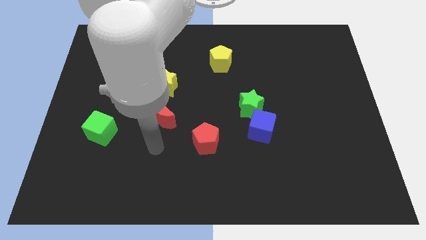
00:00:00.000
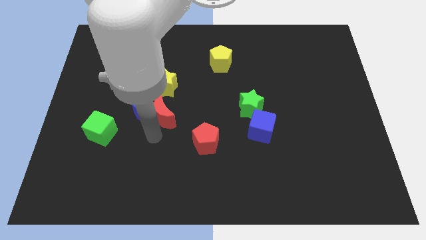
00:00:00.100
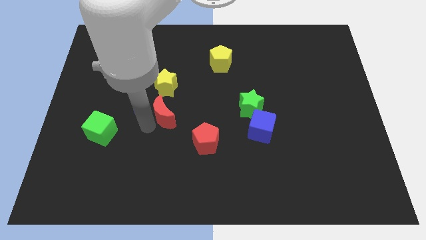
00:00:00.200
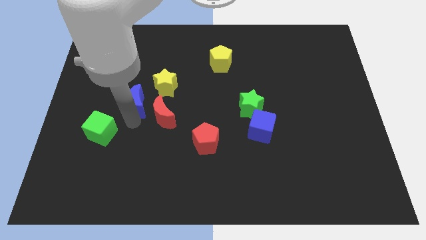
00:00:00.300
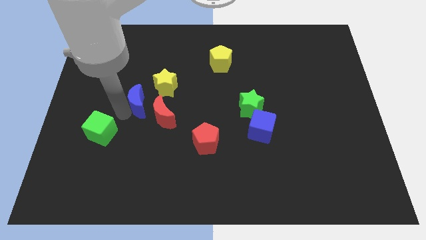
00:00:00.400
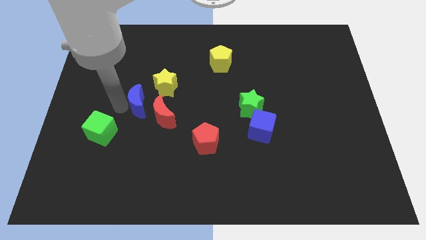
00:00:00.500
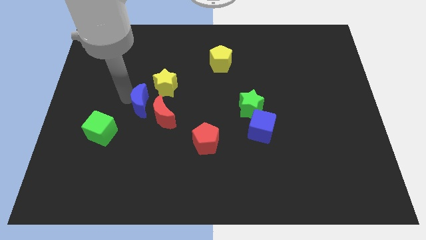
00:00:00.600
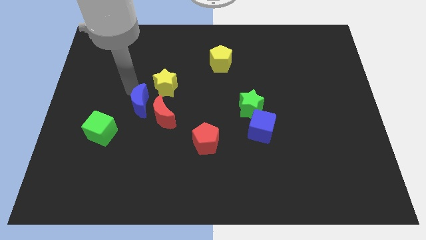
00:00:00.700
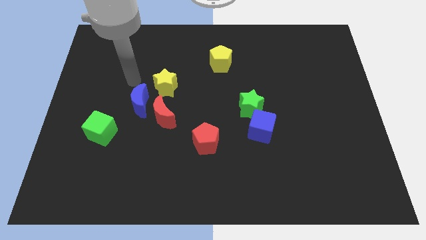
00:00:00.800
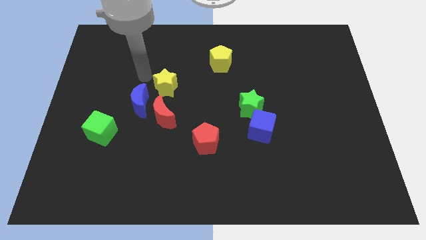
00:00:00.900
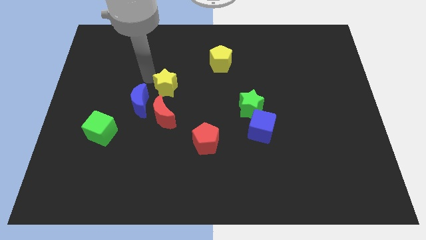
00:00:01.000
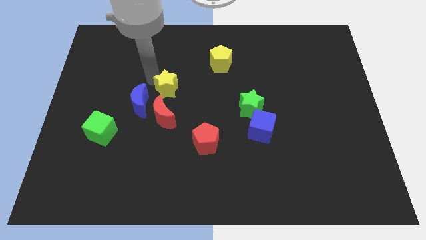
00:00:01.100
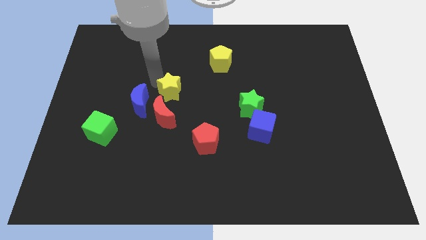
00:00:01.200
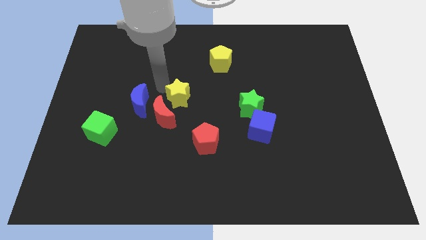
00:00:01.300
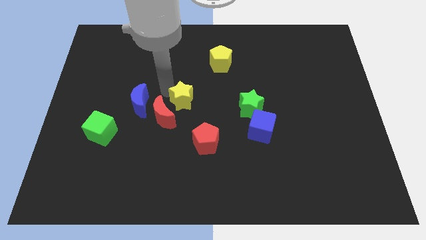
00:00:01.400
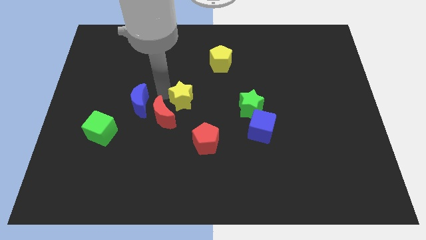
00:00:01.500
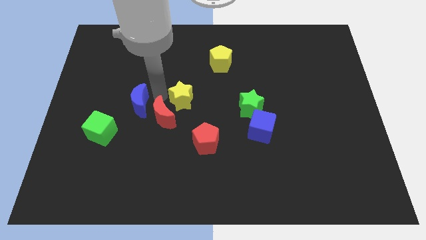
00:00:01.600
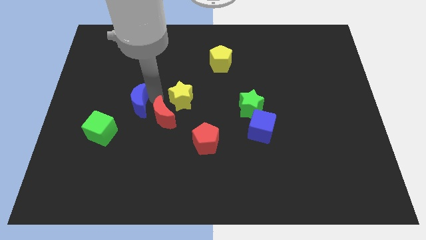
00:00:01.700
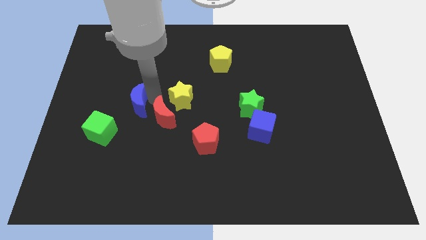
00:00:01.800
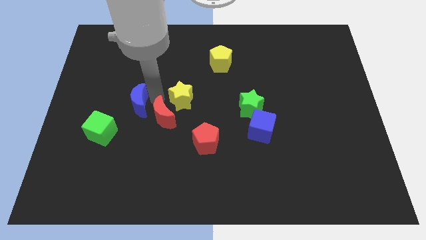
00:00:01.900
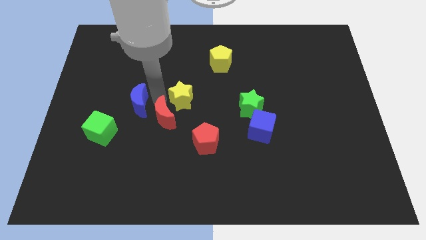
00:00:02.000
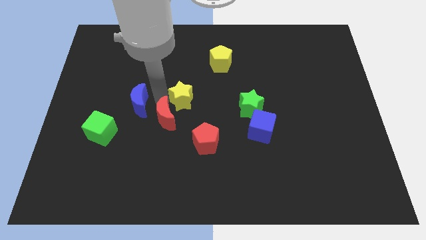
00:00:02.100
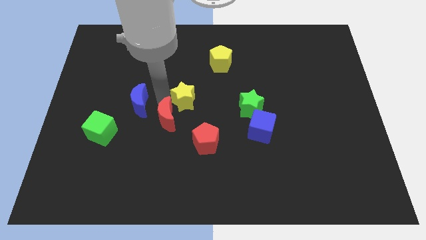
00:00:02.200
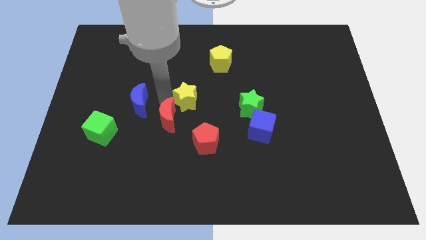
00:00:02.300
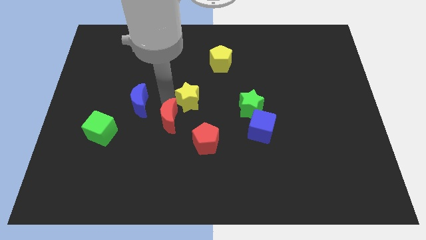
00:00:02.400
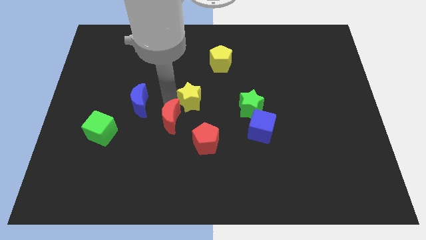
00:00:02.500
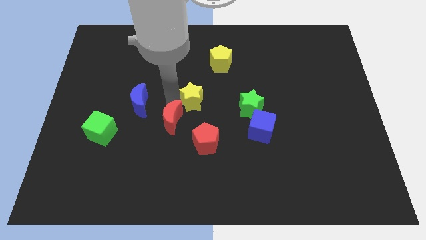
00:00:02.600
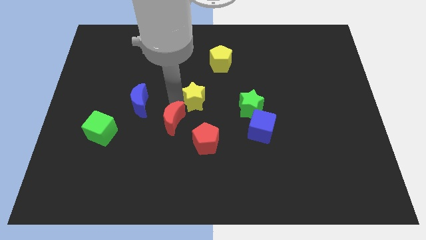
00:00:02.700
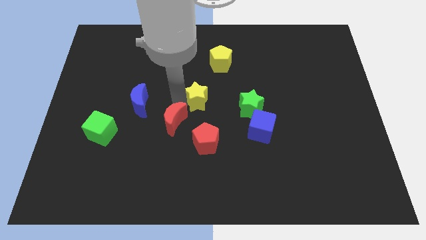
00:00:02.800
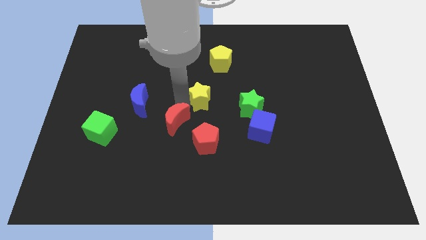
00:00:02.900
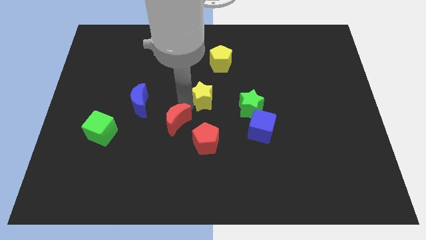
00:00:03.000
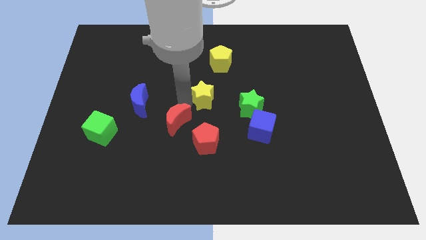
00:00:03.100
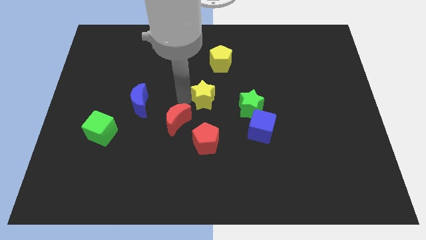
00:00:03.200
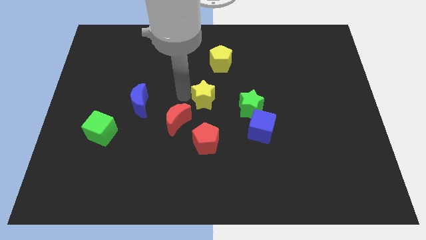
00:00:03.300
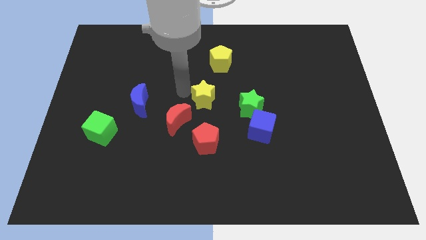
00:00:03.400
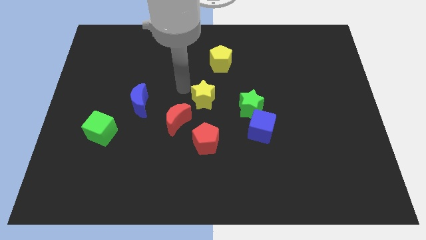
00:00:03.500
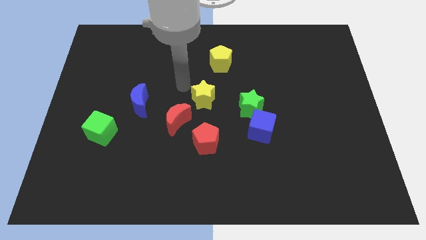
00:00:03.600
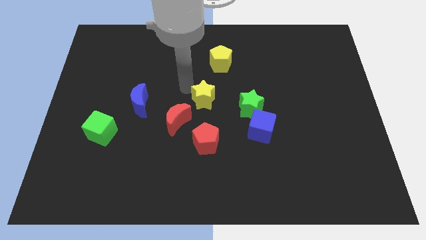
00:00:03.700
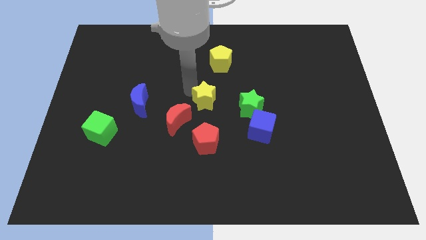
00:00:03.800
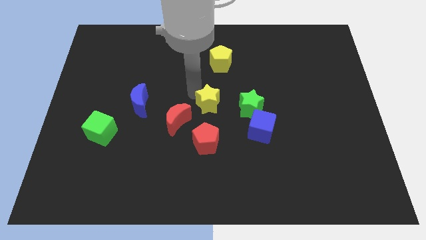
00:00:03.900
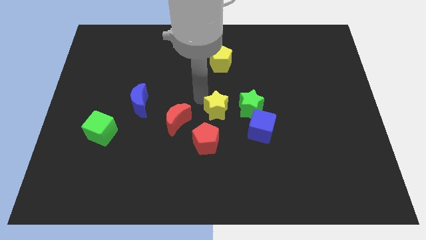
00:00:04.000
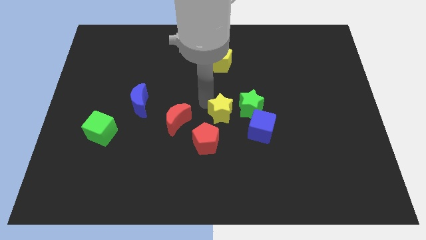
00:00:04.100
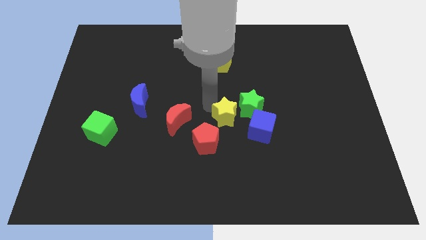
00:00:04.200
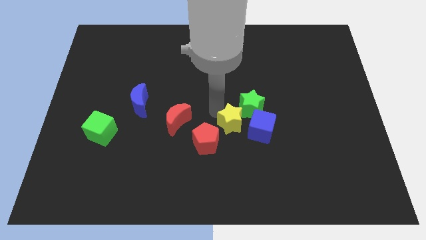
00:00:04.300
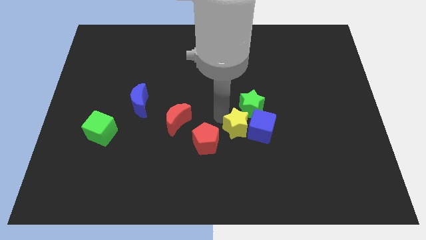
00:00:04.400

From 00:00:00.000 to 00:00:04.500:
slide the yellow star close to the blue cube

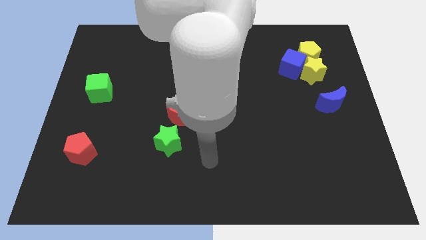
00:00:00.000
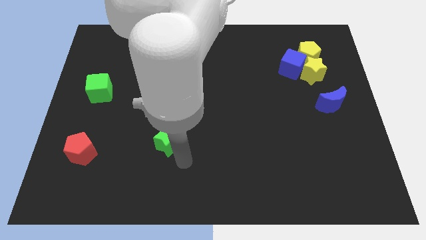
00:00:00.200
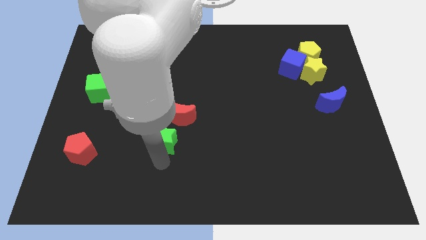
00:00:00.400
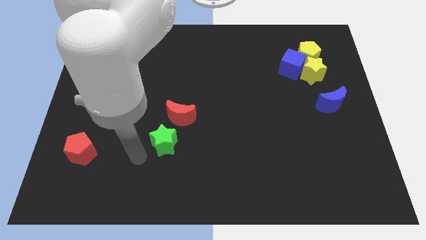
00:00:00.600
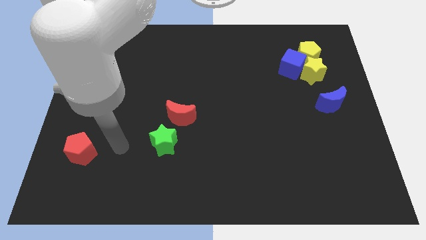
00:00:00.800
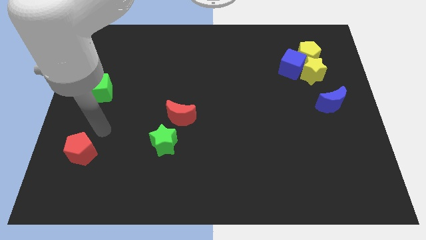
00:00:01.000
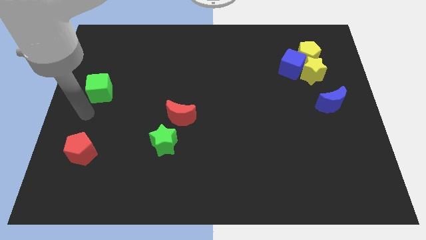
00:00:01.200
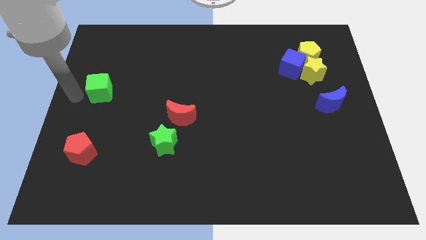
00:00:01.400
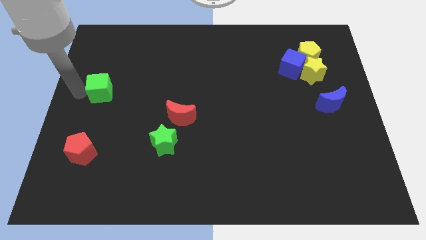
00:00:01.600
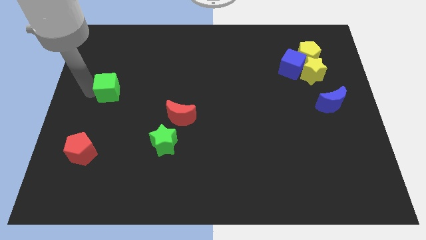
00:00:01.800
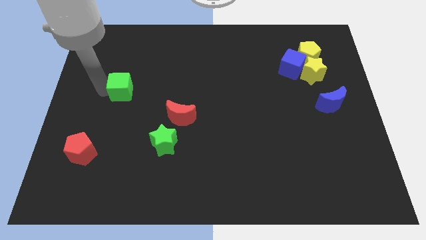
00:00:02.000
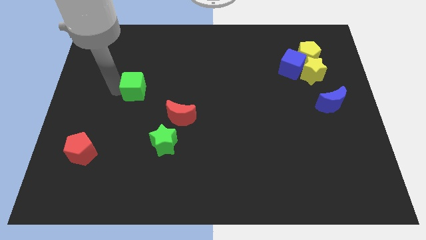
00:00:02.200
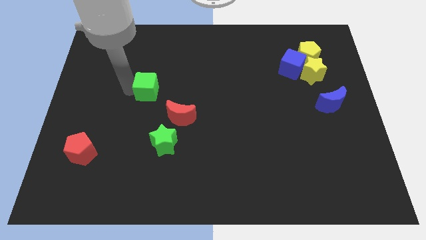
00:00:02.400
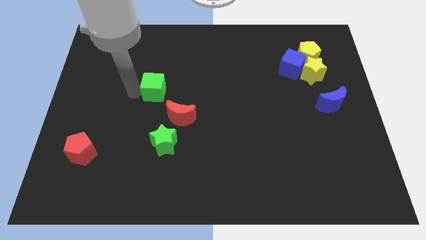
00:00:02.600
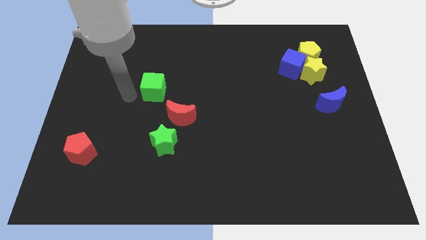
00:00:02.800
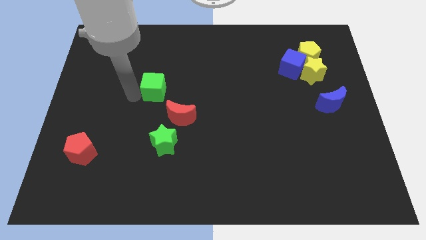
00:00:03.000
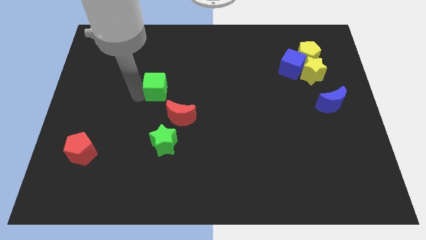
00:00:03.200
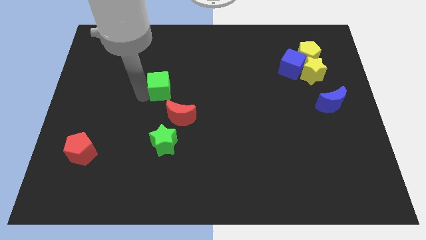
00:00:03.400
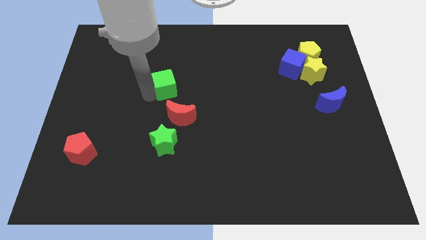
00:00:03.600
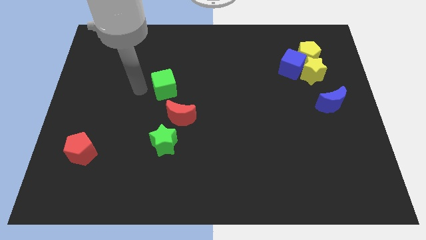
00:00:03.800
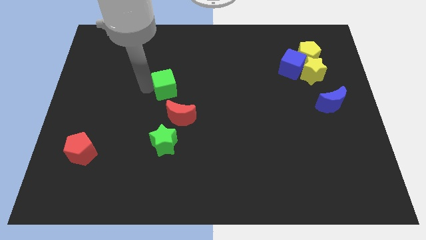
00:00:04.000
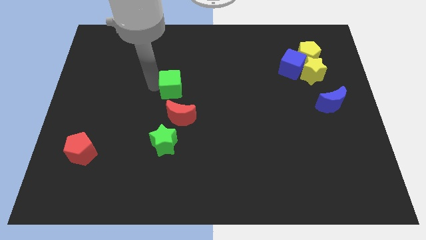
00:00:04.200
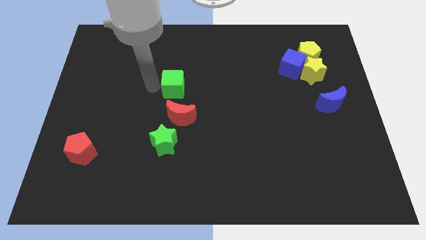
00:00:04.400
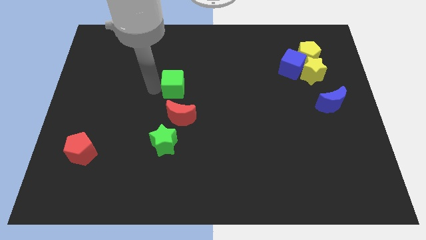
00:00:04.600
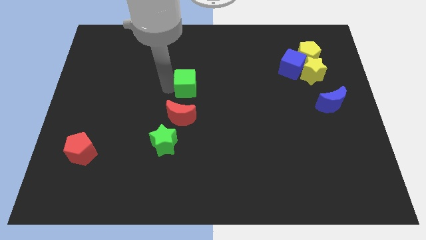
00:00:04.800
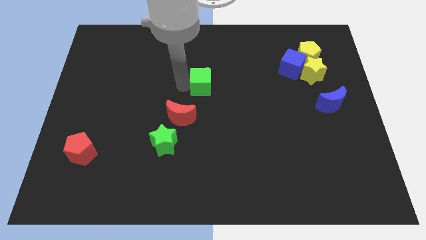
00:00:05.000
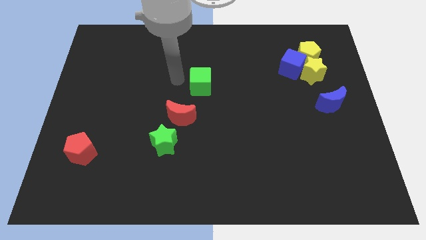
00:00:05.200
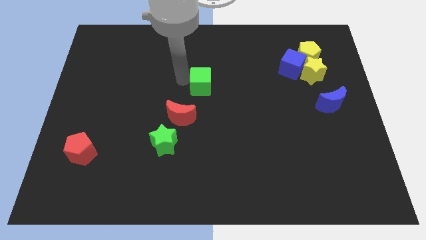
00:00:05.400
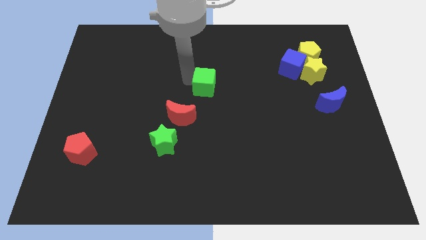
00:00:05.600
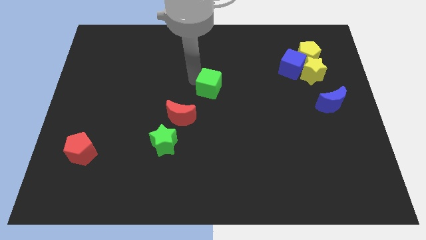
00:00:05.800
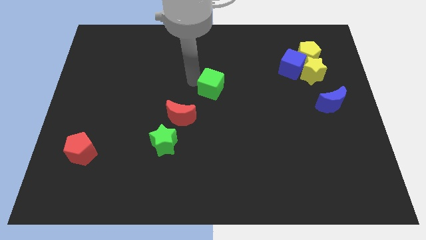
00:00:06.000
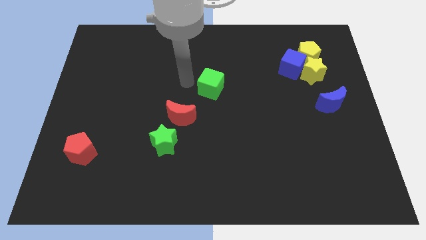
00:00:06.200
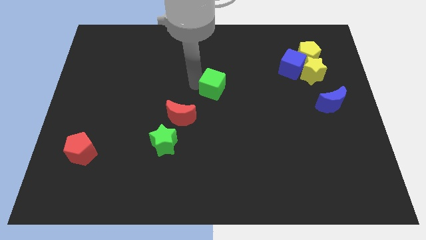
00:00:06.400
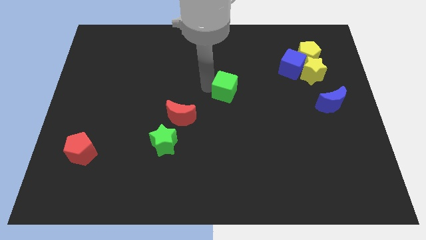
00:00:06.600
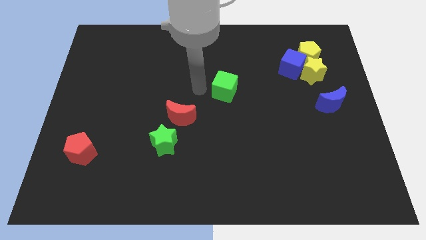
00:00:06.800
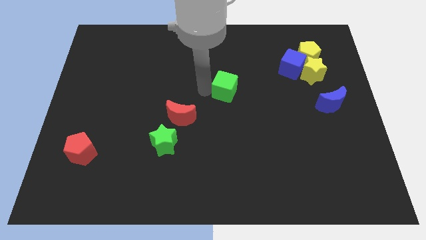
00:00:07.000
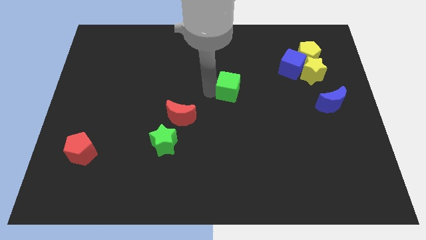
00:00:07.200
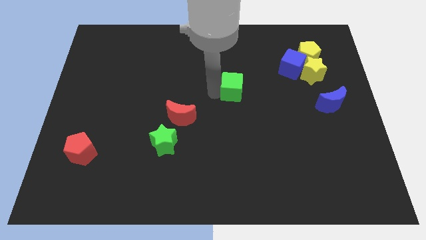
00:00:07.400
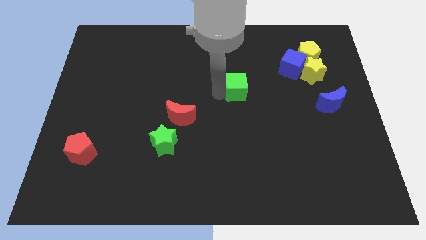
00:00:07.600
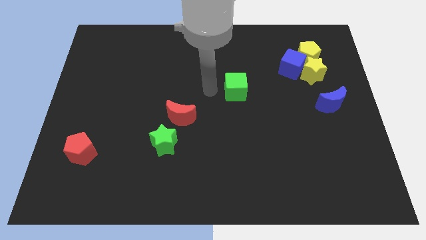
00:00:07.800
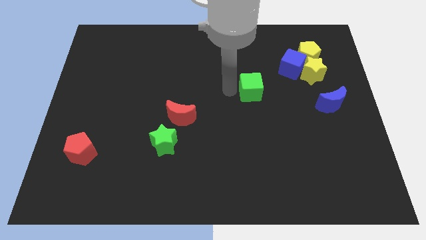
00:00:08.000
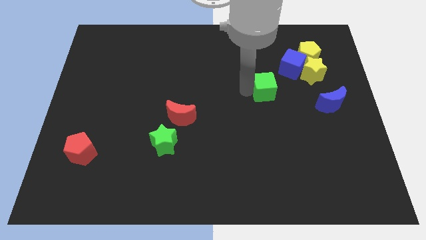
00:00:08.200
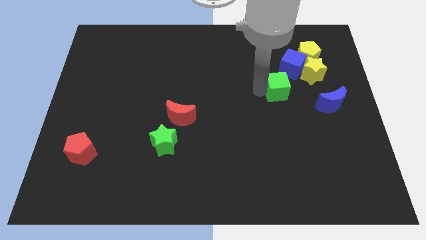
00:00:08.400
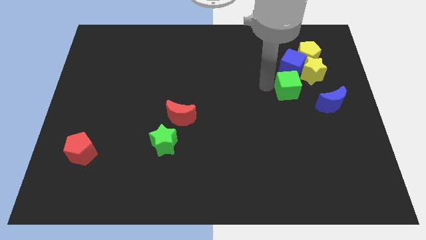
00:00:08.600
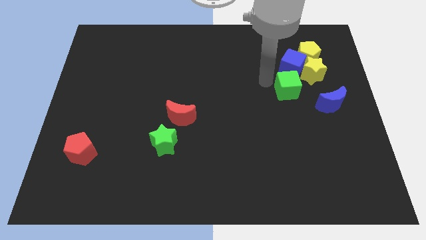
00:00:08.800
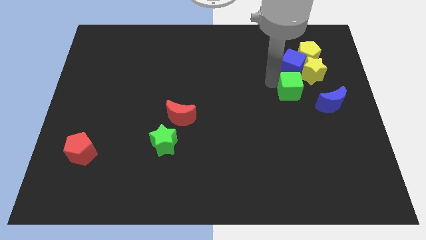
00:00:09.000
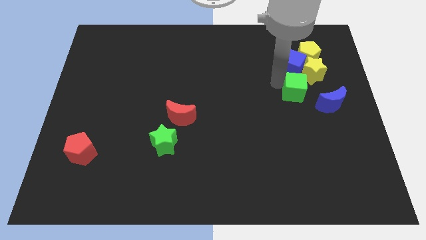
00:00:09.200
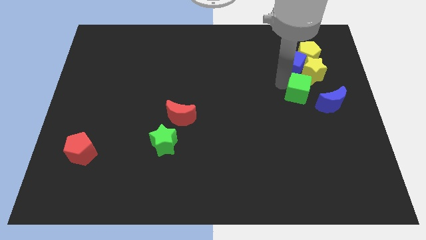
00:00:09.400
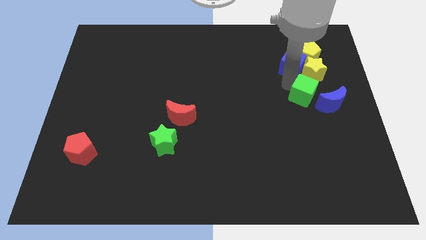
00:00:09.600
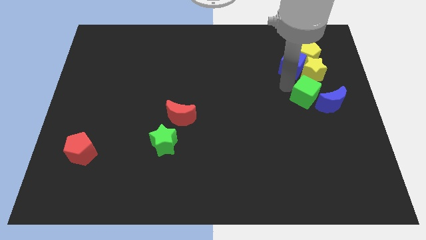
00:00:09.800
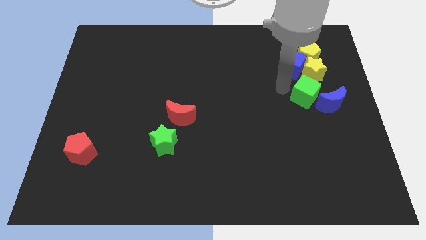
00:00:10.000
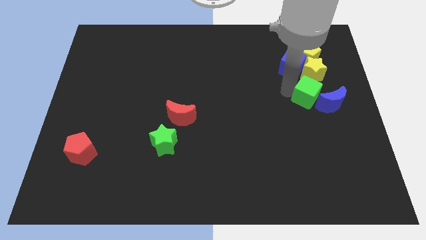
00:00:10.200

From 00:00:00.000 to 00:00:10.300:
slide the green cube towards the blue moon
